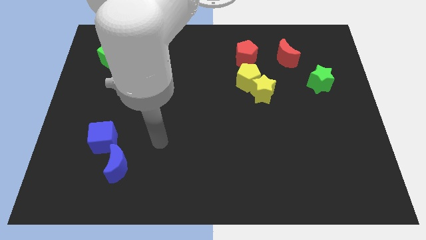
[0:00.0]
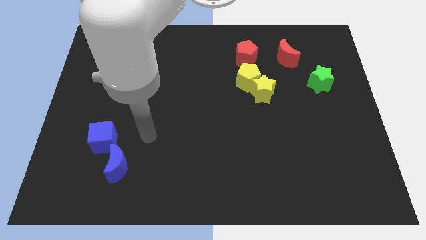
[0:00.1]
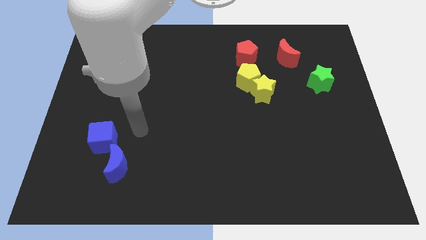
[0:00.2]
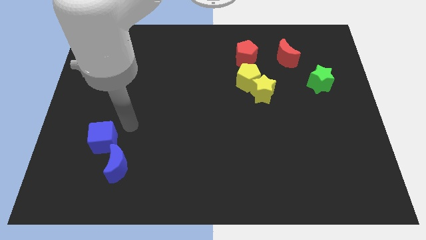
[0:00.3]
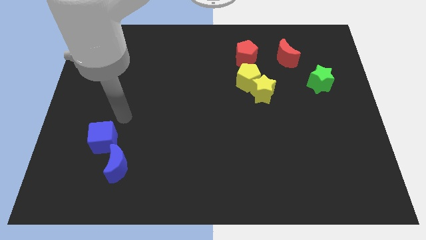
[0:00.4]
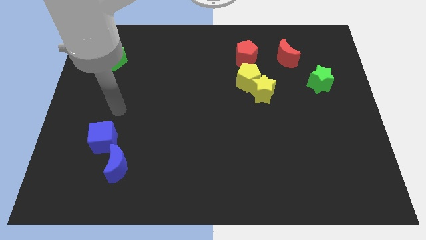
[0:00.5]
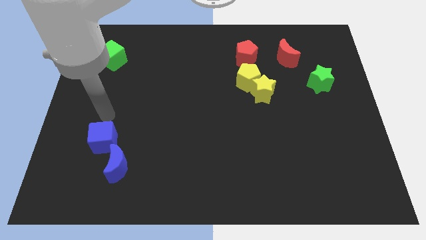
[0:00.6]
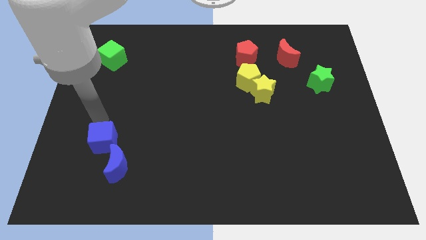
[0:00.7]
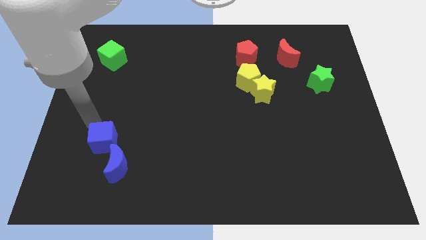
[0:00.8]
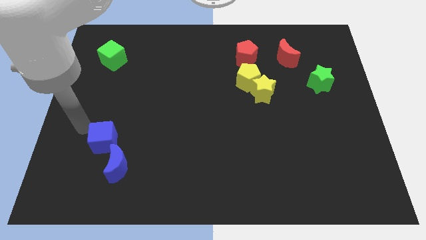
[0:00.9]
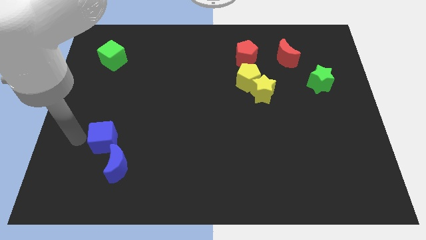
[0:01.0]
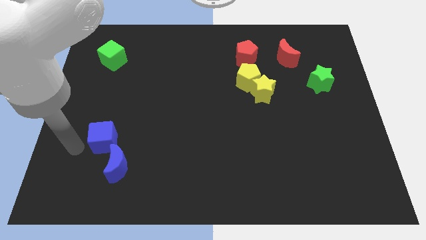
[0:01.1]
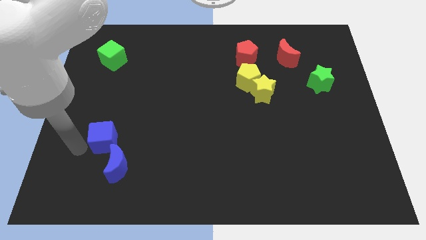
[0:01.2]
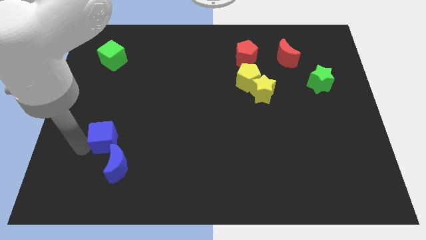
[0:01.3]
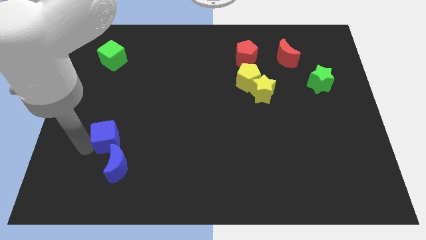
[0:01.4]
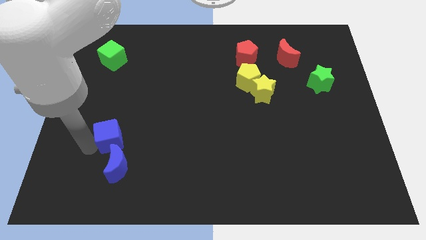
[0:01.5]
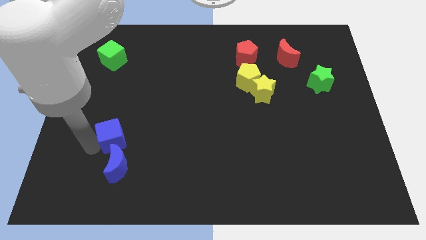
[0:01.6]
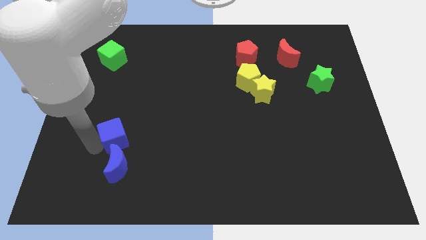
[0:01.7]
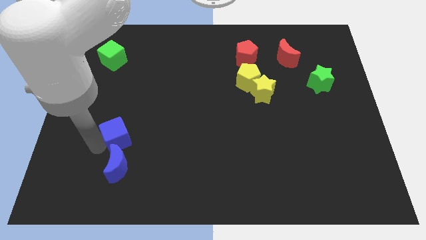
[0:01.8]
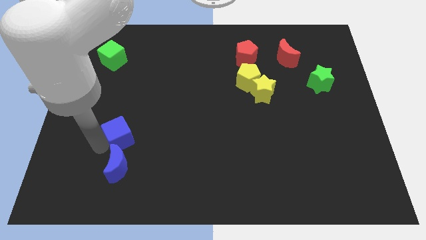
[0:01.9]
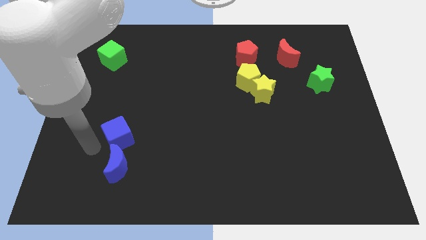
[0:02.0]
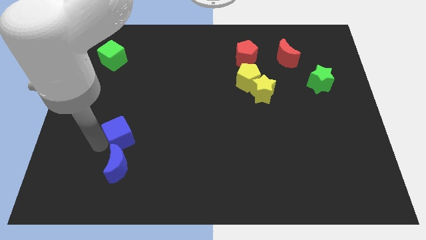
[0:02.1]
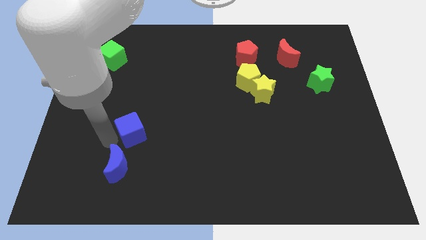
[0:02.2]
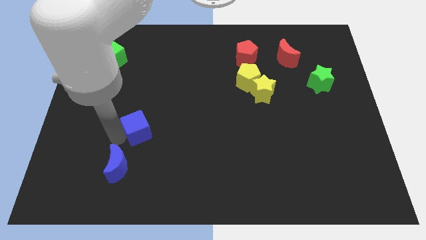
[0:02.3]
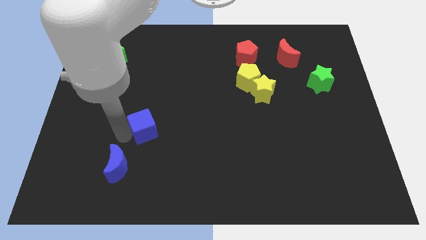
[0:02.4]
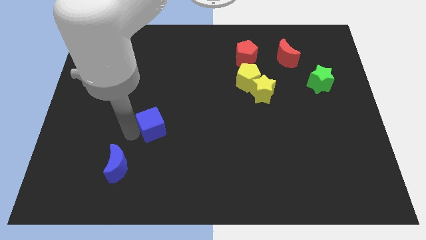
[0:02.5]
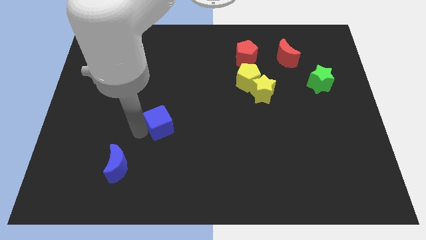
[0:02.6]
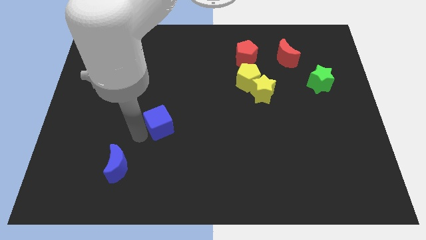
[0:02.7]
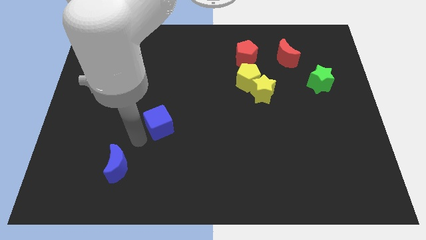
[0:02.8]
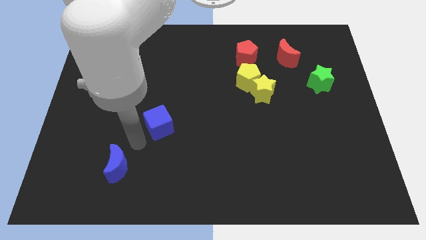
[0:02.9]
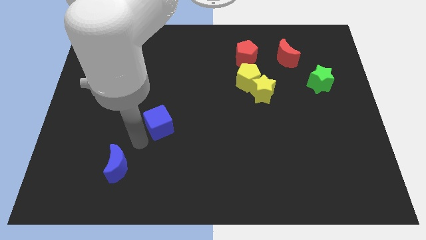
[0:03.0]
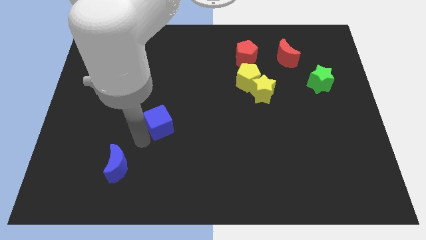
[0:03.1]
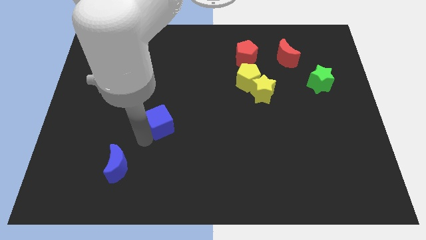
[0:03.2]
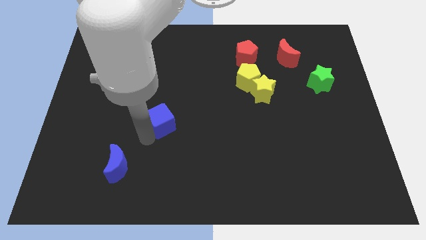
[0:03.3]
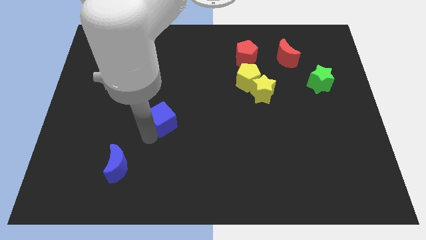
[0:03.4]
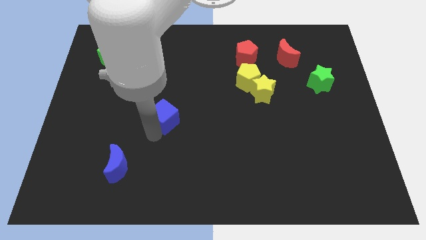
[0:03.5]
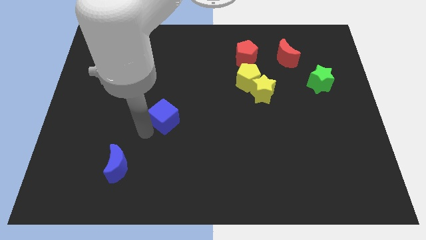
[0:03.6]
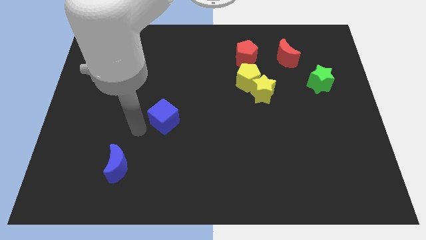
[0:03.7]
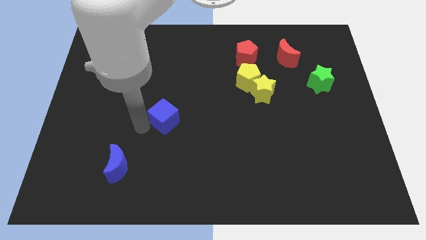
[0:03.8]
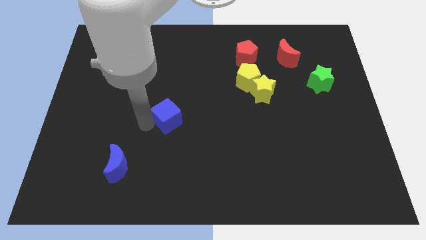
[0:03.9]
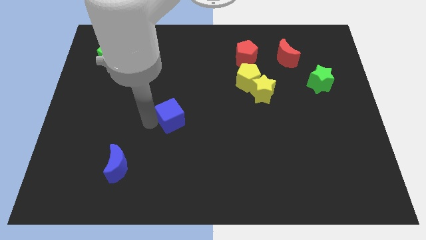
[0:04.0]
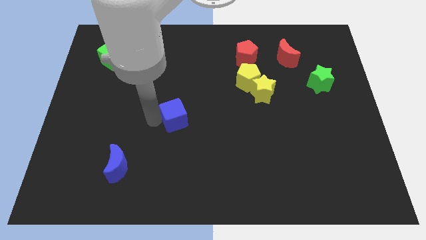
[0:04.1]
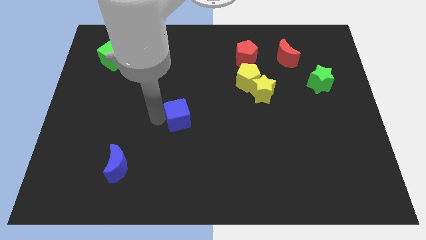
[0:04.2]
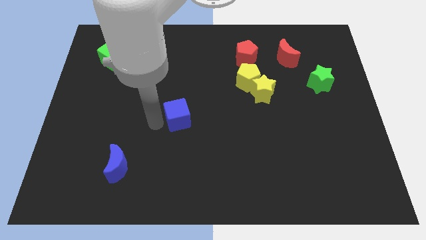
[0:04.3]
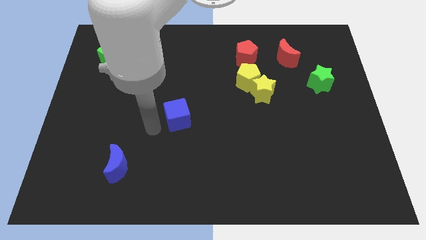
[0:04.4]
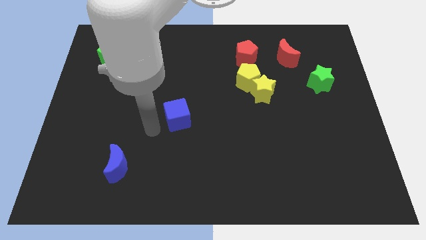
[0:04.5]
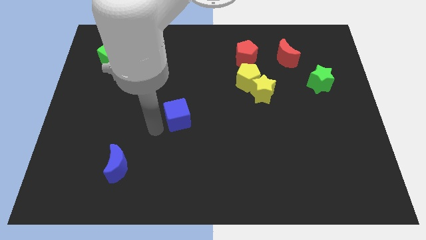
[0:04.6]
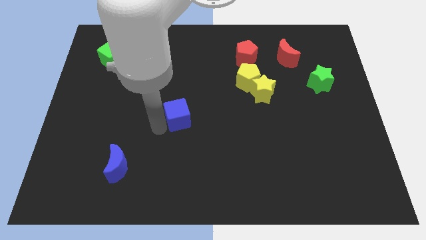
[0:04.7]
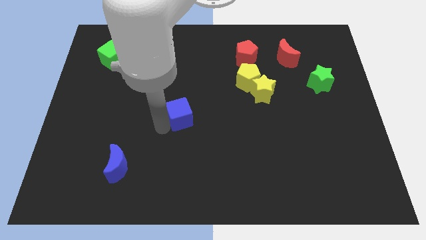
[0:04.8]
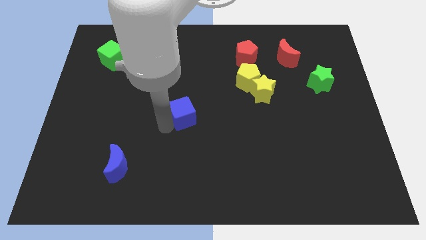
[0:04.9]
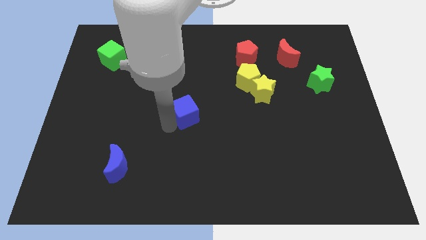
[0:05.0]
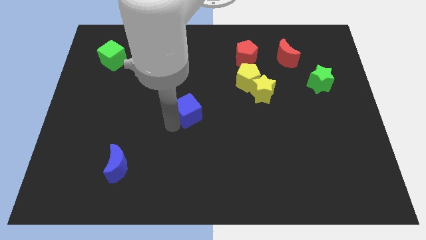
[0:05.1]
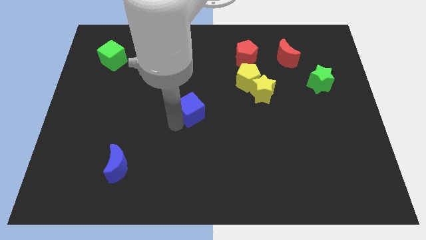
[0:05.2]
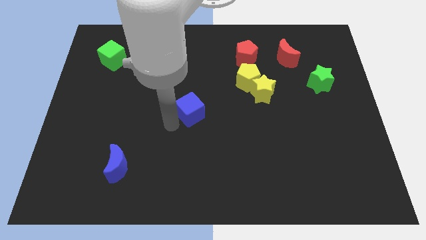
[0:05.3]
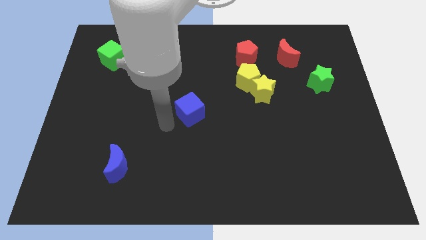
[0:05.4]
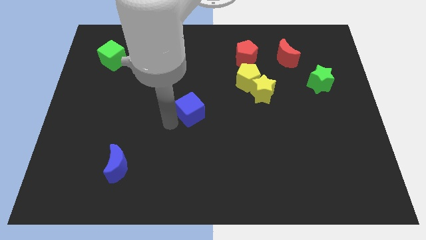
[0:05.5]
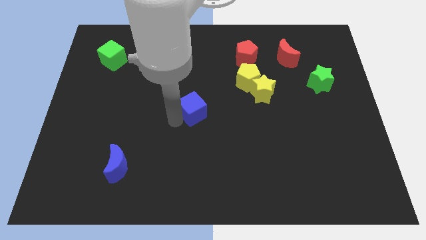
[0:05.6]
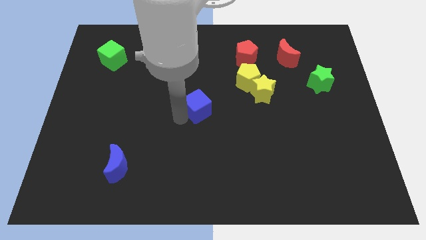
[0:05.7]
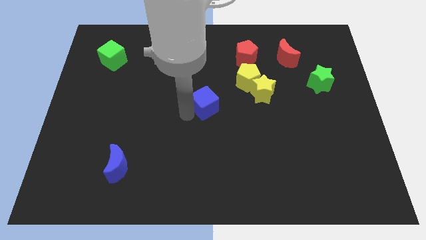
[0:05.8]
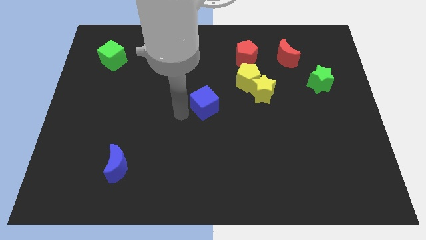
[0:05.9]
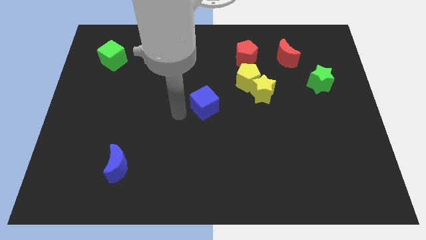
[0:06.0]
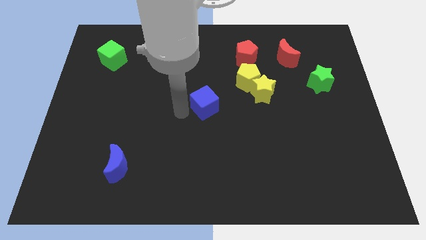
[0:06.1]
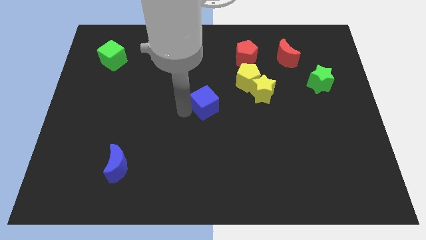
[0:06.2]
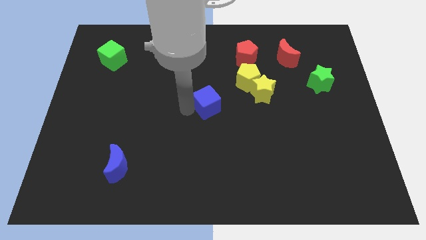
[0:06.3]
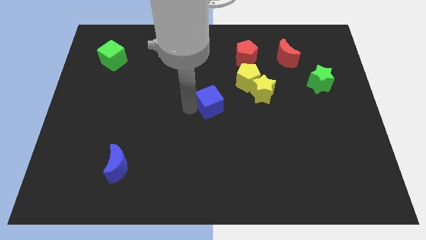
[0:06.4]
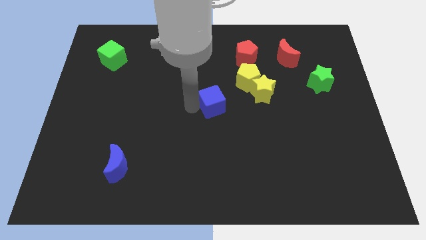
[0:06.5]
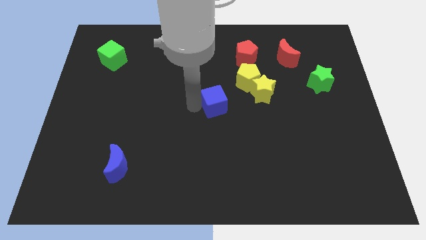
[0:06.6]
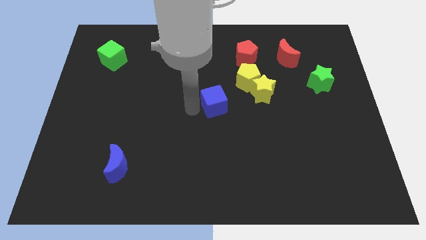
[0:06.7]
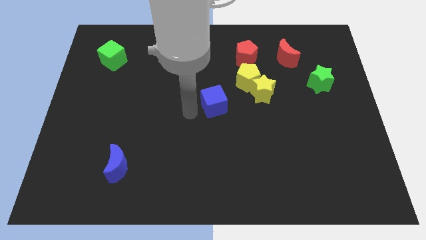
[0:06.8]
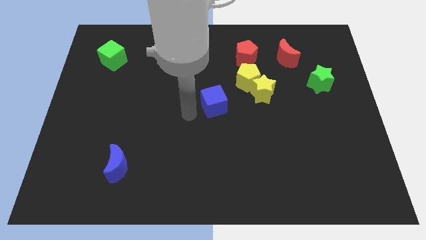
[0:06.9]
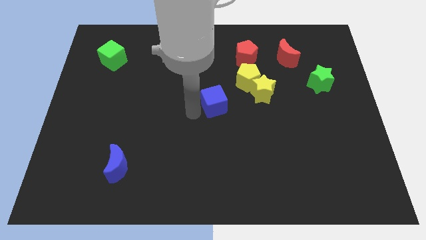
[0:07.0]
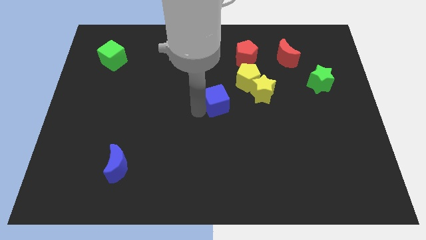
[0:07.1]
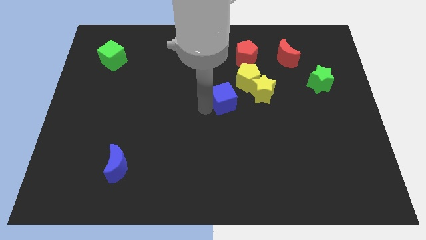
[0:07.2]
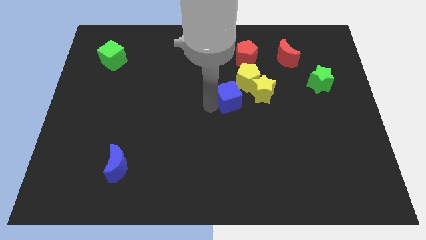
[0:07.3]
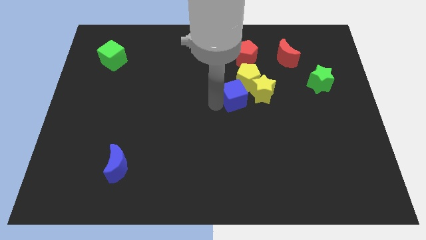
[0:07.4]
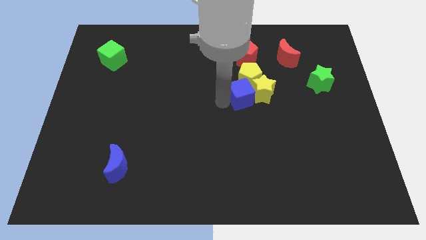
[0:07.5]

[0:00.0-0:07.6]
slide the blue cube next to the yellow star
